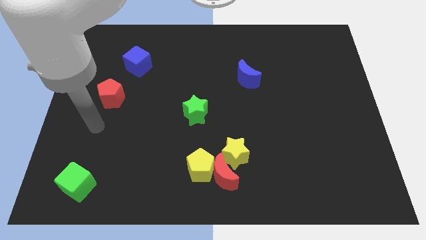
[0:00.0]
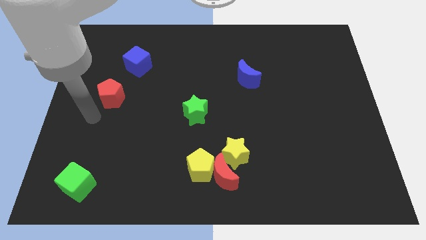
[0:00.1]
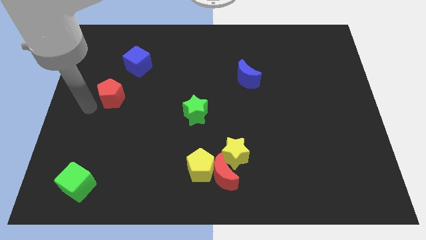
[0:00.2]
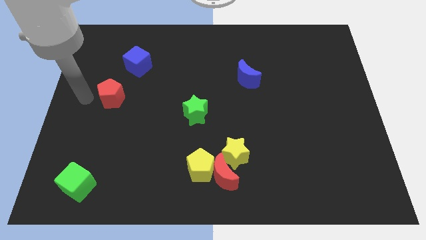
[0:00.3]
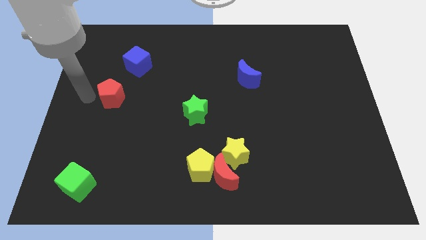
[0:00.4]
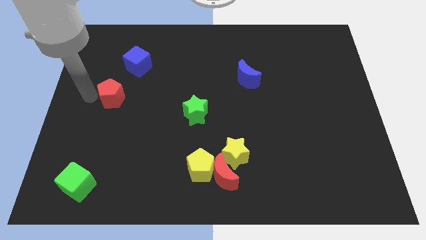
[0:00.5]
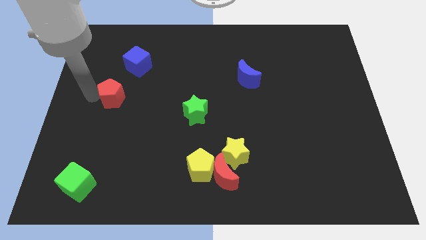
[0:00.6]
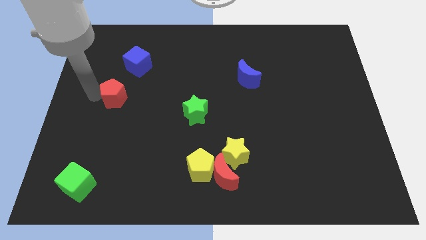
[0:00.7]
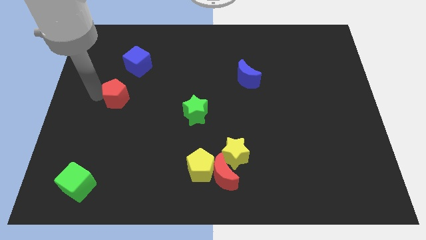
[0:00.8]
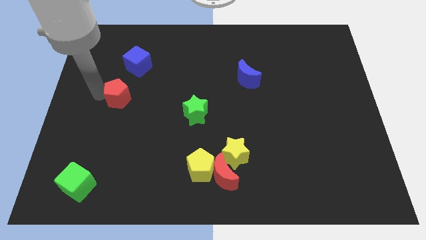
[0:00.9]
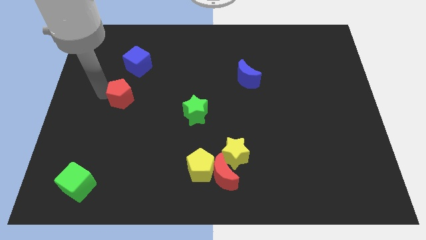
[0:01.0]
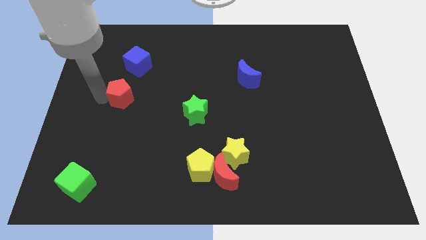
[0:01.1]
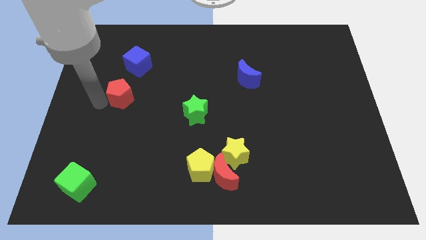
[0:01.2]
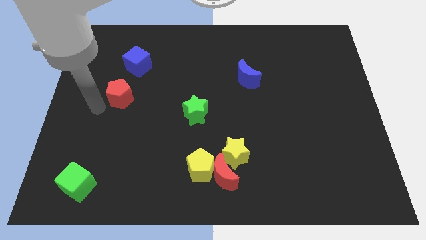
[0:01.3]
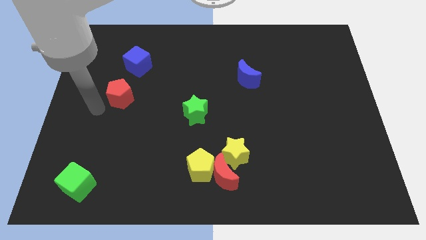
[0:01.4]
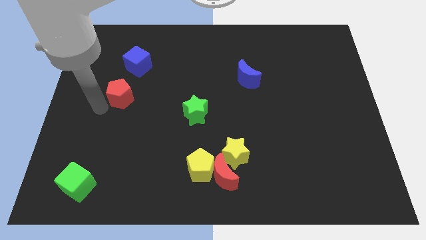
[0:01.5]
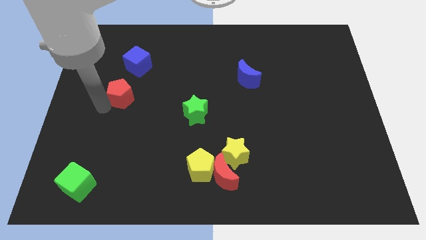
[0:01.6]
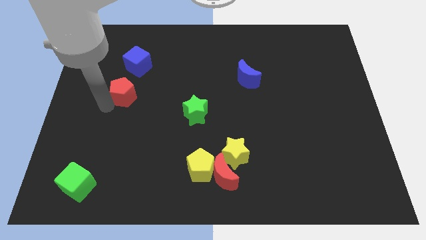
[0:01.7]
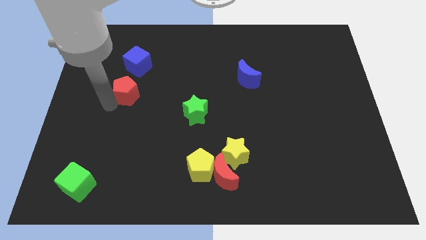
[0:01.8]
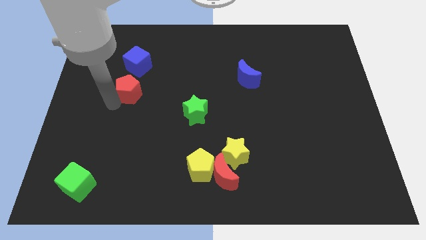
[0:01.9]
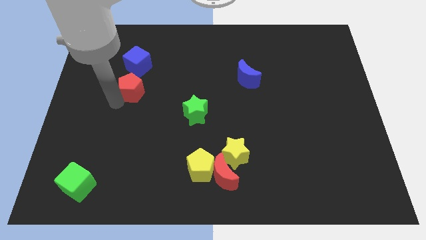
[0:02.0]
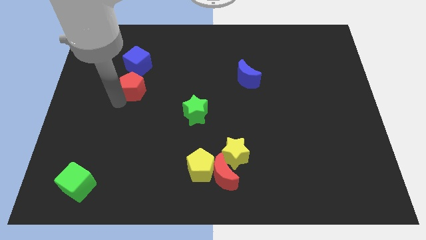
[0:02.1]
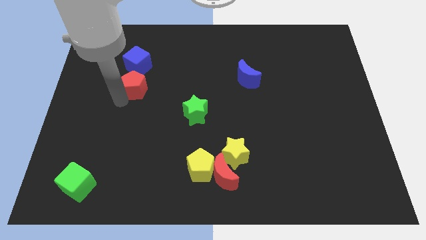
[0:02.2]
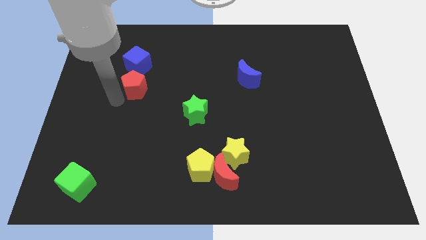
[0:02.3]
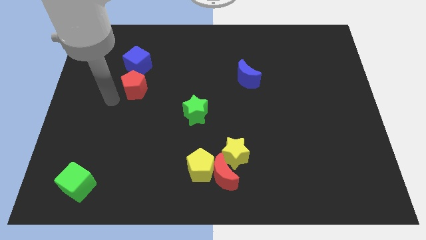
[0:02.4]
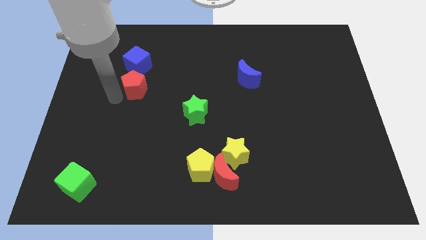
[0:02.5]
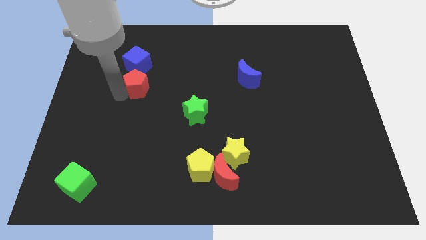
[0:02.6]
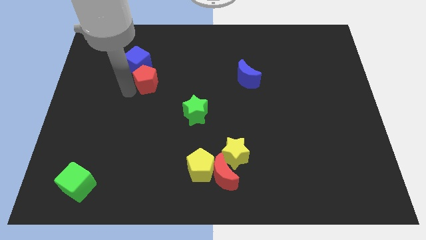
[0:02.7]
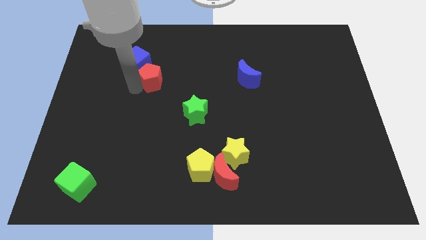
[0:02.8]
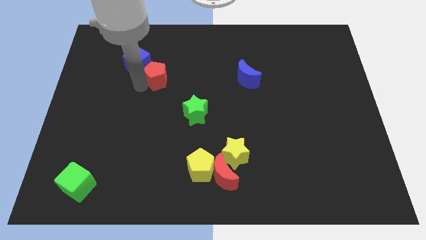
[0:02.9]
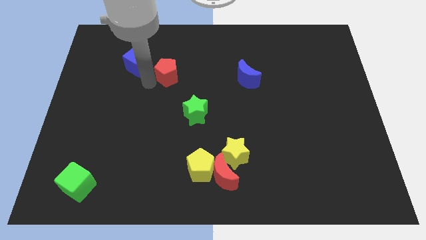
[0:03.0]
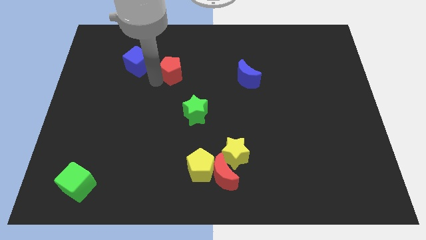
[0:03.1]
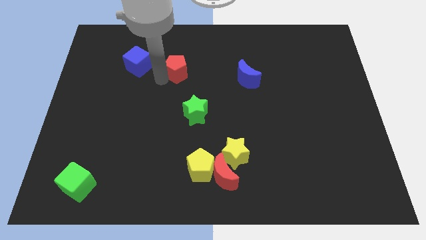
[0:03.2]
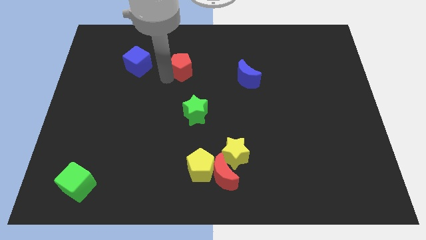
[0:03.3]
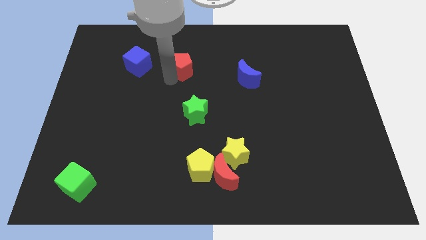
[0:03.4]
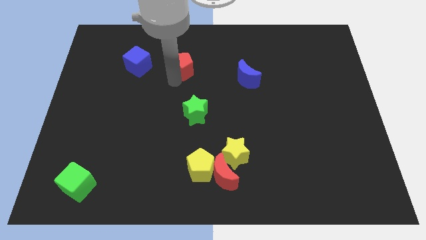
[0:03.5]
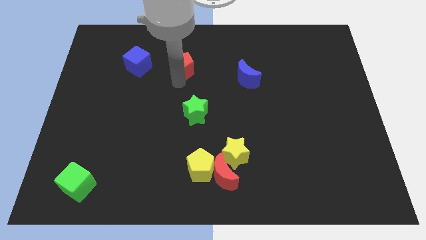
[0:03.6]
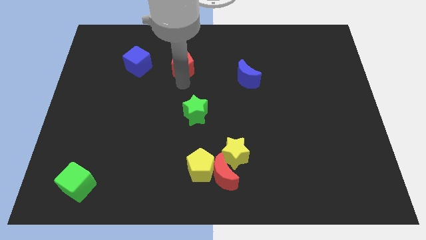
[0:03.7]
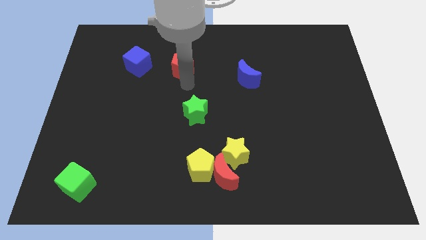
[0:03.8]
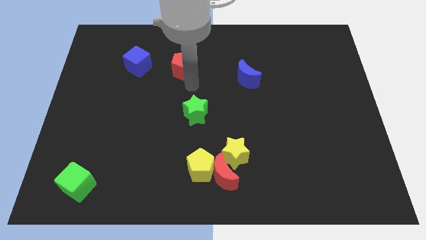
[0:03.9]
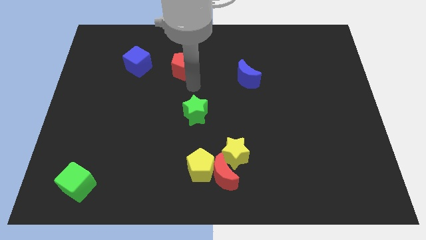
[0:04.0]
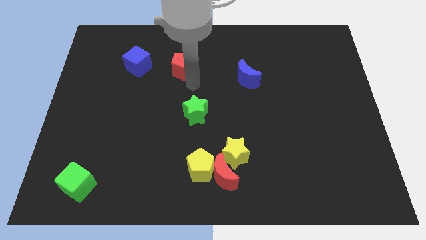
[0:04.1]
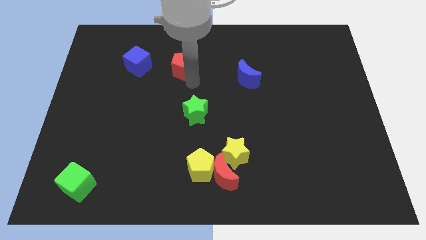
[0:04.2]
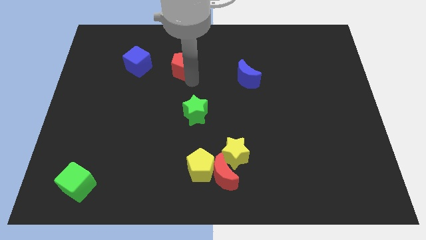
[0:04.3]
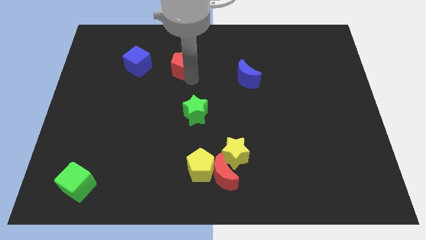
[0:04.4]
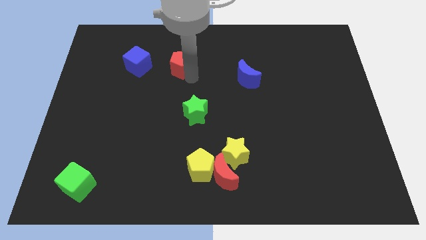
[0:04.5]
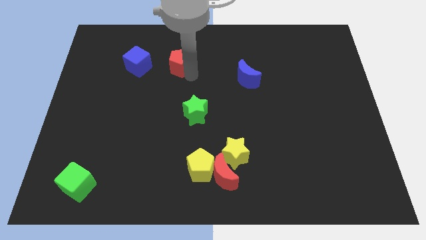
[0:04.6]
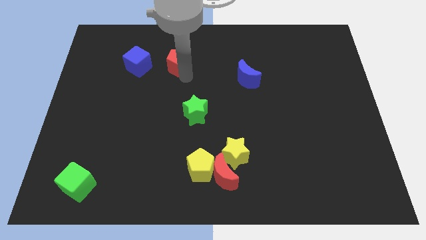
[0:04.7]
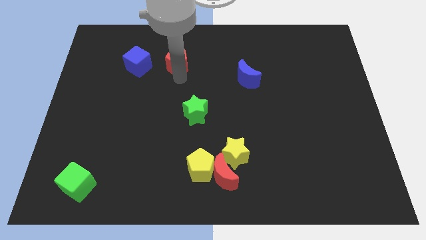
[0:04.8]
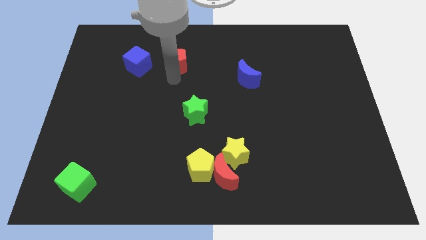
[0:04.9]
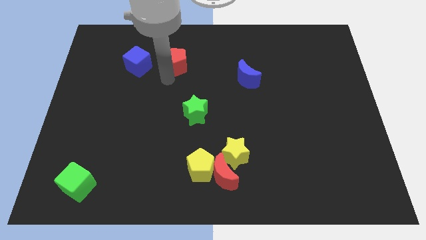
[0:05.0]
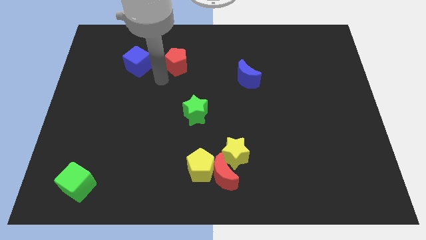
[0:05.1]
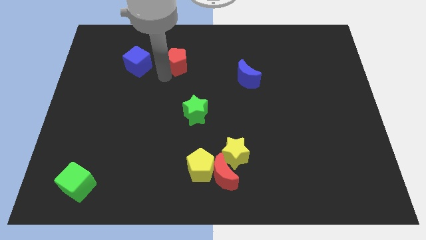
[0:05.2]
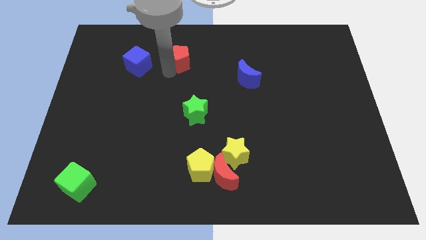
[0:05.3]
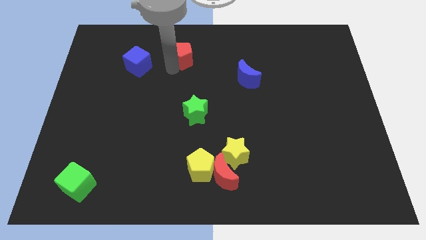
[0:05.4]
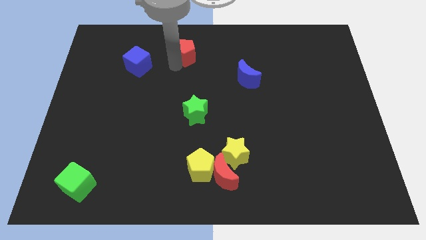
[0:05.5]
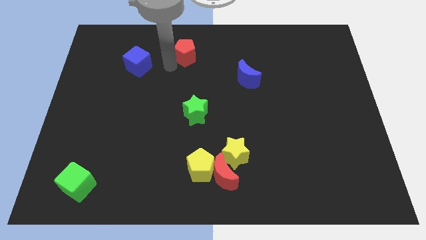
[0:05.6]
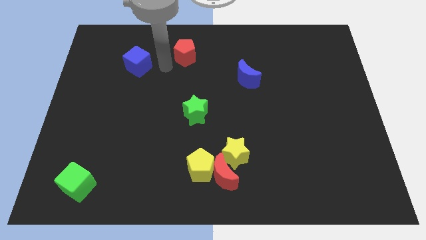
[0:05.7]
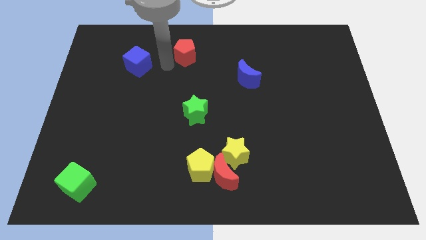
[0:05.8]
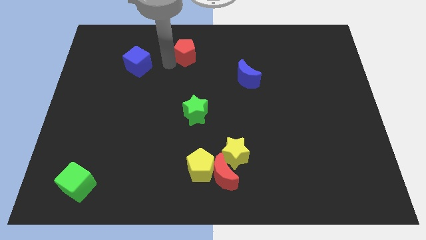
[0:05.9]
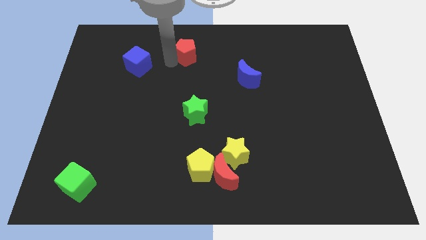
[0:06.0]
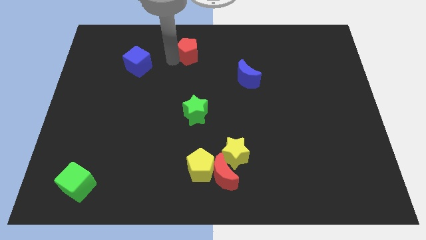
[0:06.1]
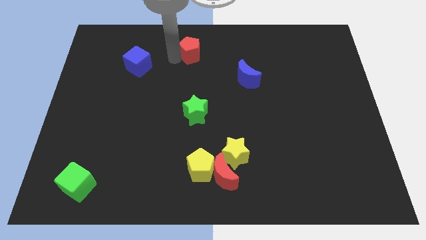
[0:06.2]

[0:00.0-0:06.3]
push the red pentagon to the top

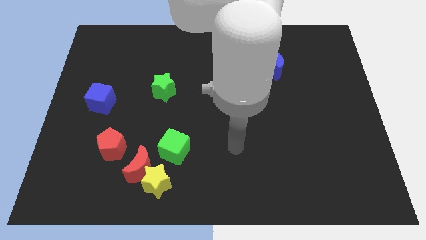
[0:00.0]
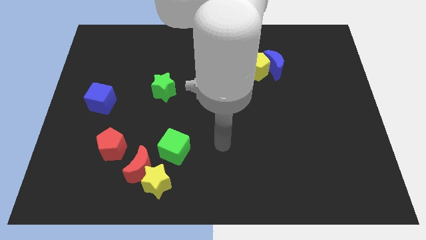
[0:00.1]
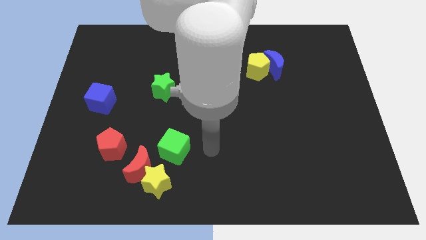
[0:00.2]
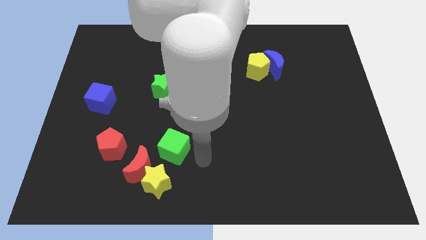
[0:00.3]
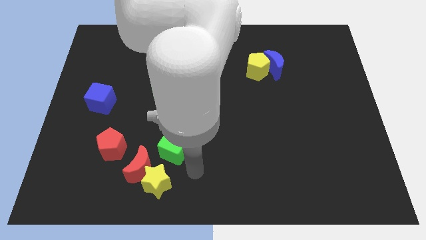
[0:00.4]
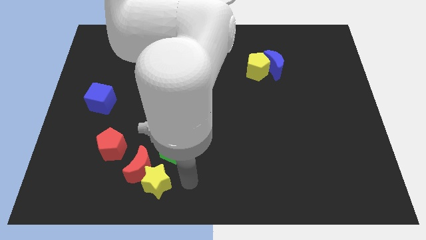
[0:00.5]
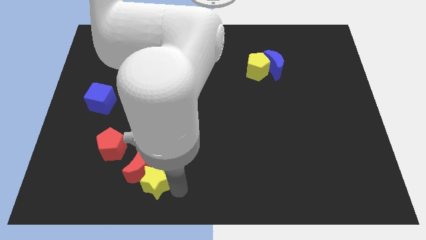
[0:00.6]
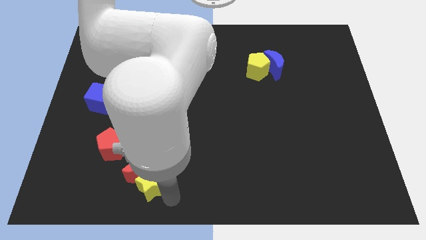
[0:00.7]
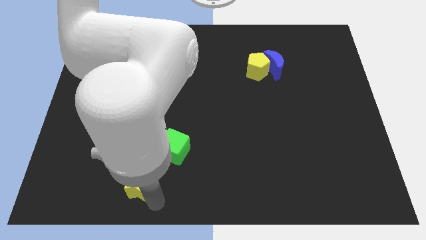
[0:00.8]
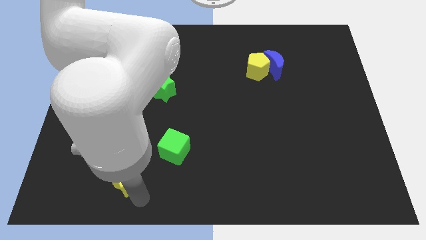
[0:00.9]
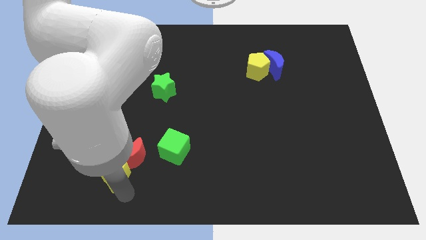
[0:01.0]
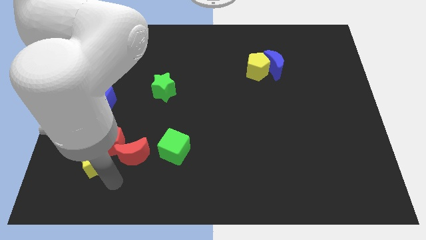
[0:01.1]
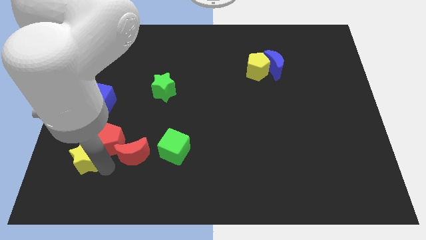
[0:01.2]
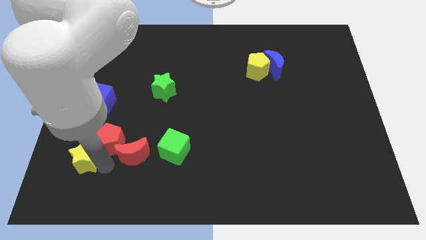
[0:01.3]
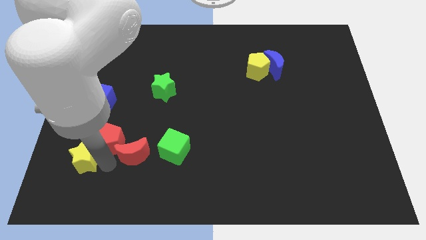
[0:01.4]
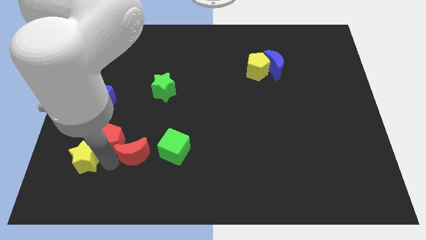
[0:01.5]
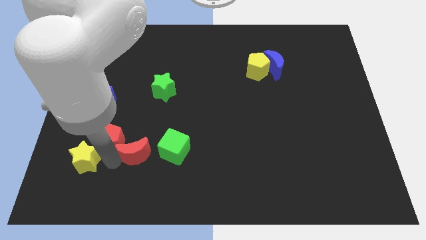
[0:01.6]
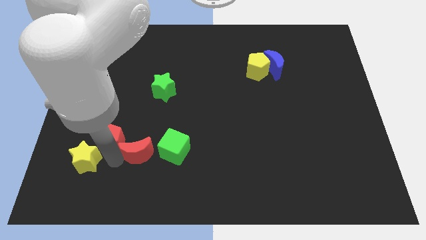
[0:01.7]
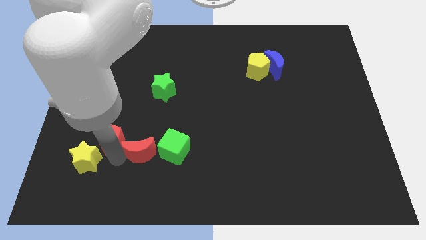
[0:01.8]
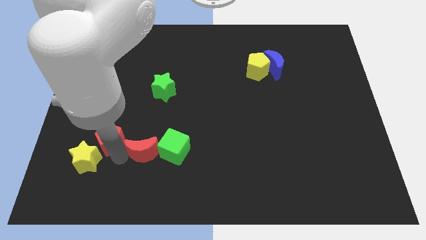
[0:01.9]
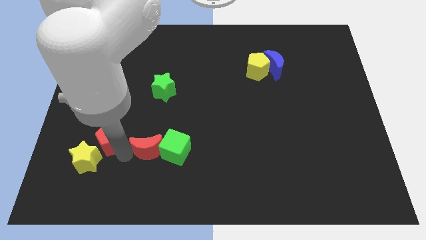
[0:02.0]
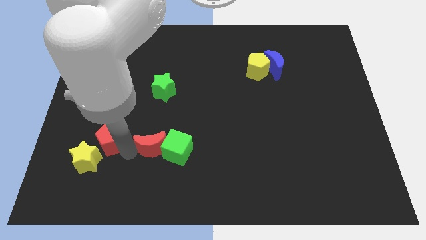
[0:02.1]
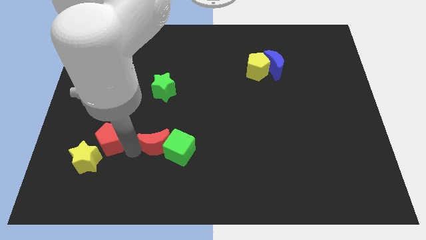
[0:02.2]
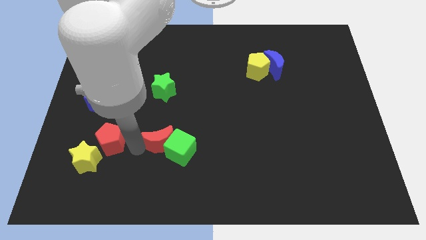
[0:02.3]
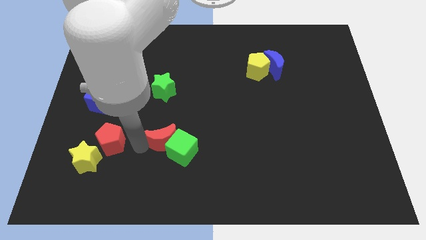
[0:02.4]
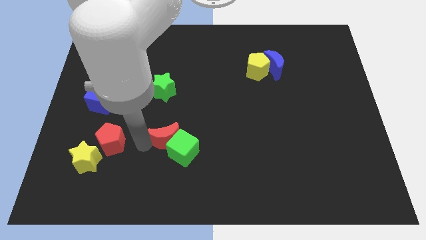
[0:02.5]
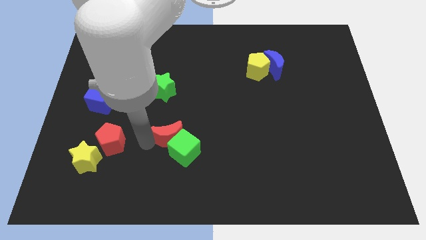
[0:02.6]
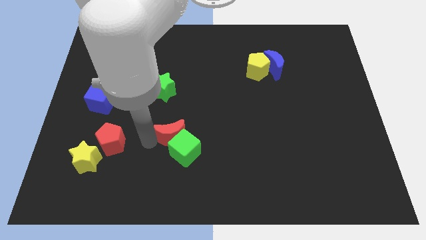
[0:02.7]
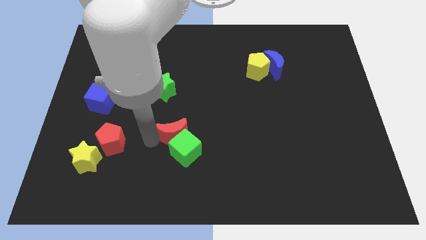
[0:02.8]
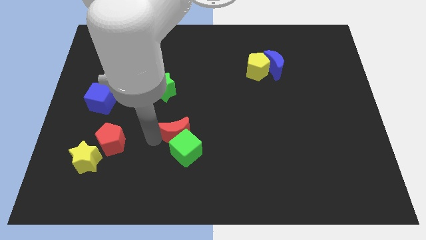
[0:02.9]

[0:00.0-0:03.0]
put the red moon to the center
